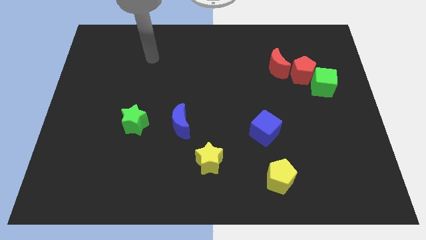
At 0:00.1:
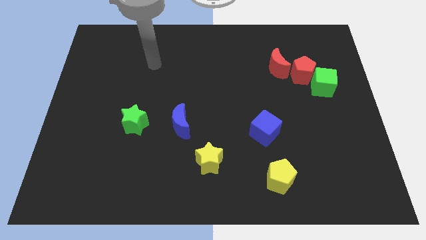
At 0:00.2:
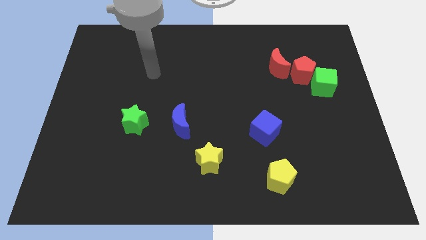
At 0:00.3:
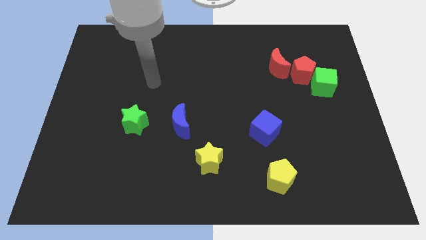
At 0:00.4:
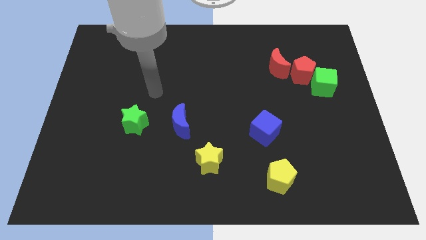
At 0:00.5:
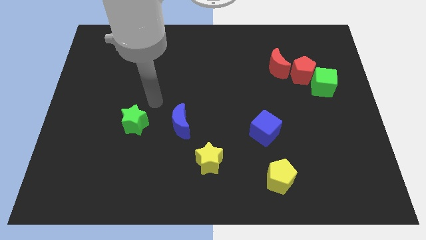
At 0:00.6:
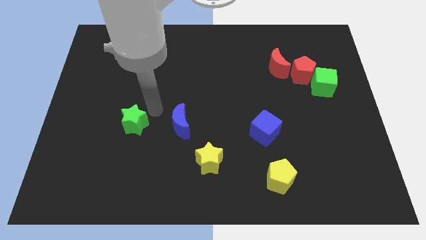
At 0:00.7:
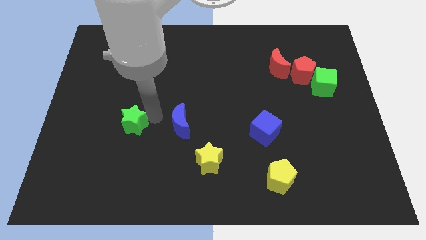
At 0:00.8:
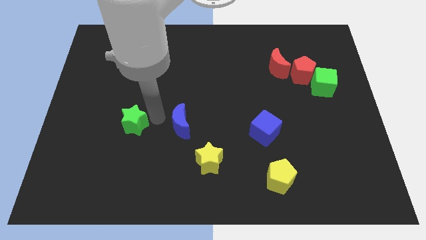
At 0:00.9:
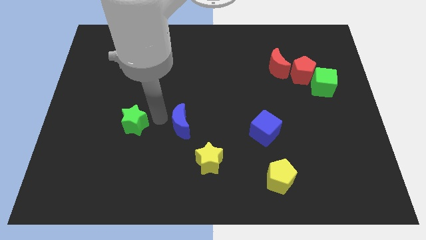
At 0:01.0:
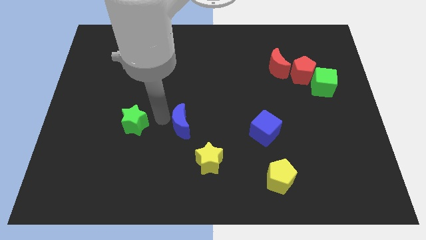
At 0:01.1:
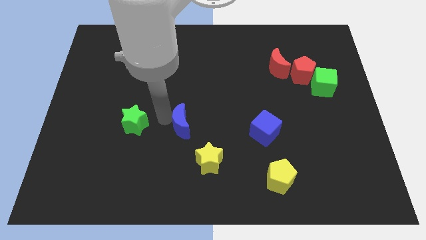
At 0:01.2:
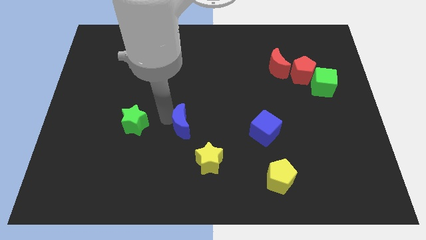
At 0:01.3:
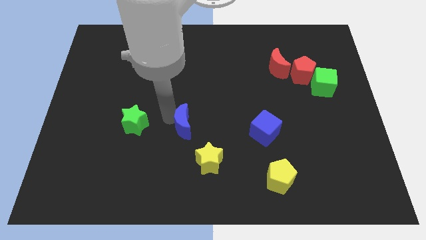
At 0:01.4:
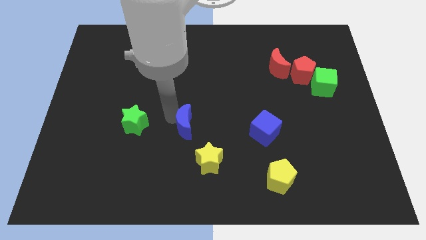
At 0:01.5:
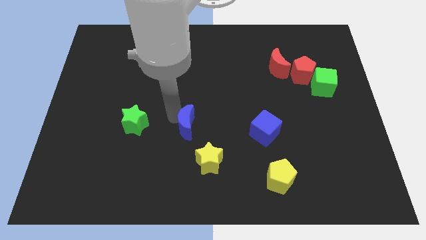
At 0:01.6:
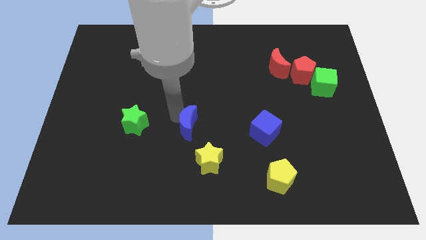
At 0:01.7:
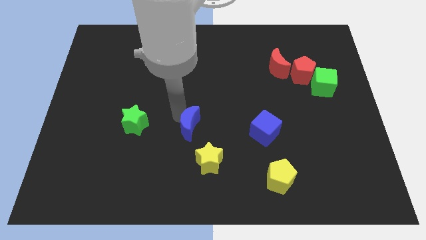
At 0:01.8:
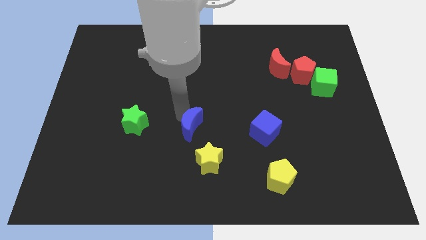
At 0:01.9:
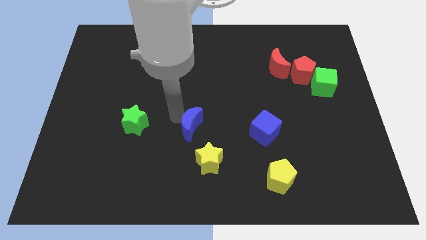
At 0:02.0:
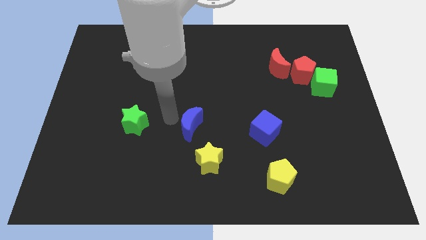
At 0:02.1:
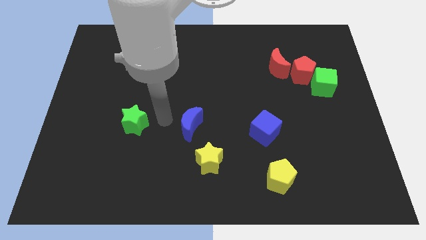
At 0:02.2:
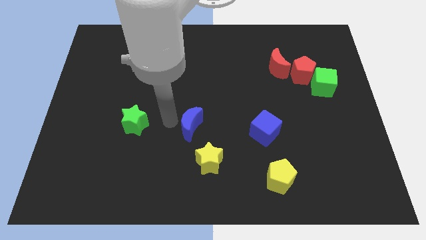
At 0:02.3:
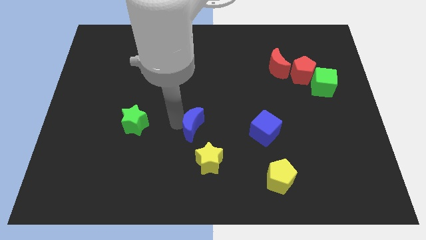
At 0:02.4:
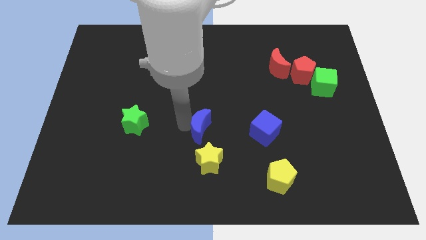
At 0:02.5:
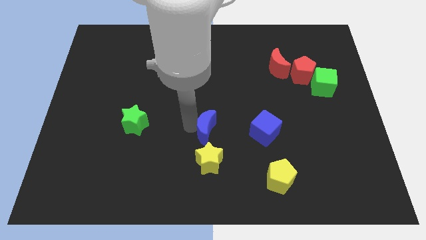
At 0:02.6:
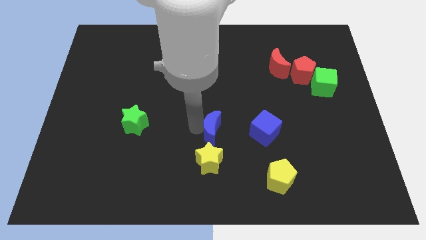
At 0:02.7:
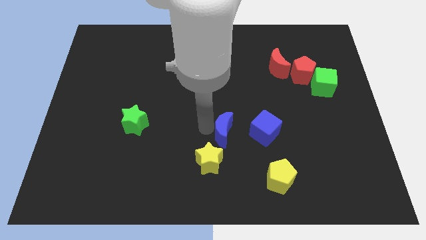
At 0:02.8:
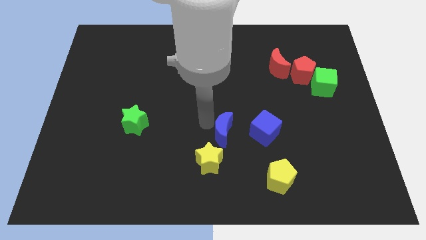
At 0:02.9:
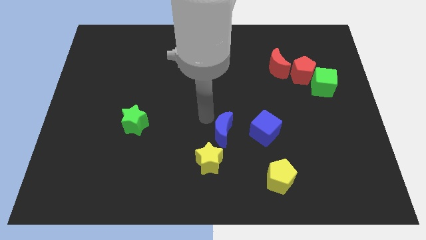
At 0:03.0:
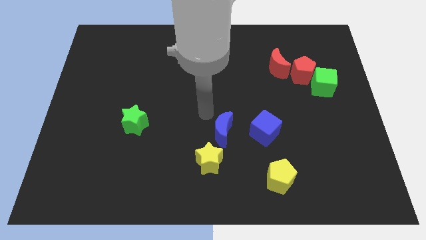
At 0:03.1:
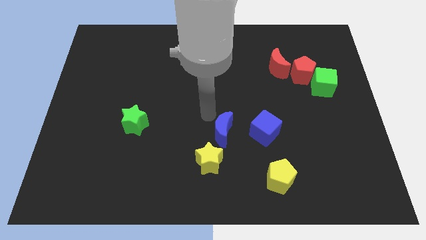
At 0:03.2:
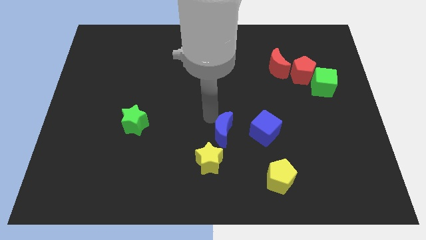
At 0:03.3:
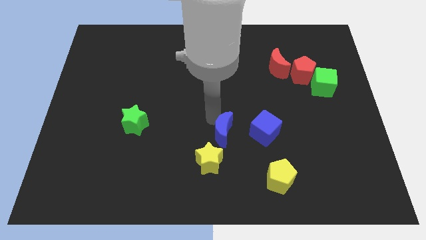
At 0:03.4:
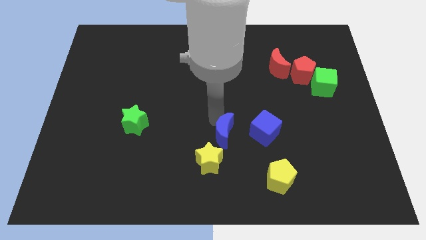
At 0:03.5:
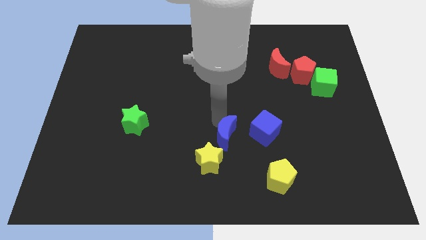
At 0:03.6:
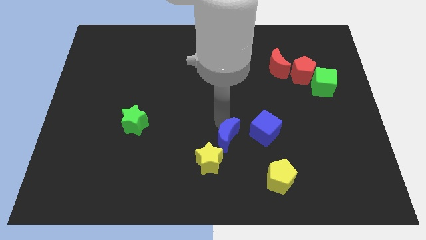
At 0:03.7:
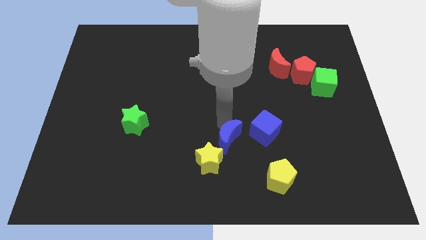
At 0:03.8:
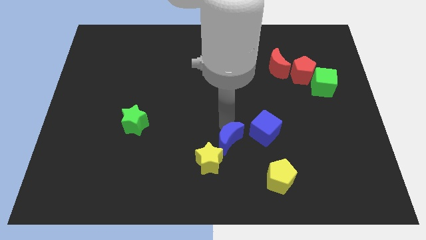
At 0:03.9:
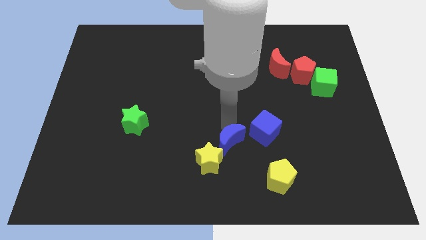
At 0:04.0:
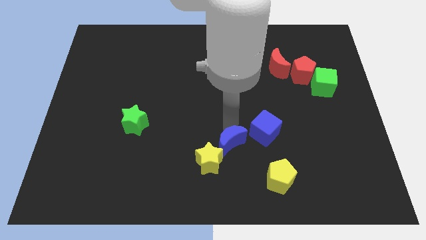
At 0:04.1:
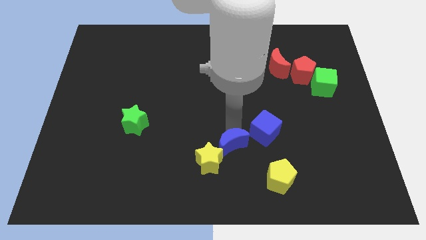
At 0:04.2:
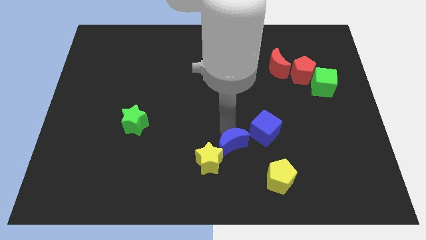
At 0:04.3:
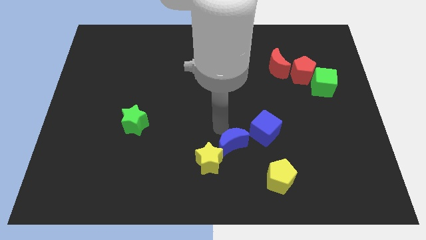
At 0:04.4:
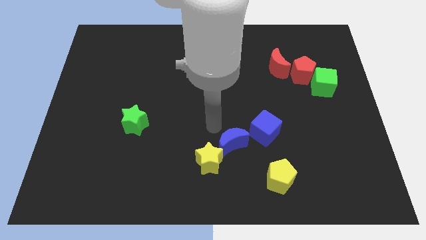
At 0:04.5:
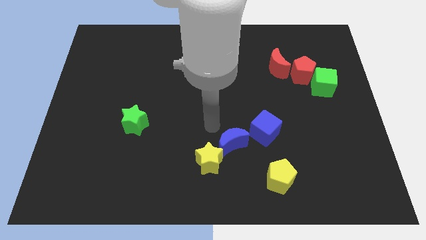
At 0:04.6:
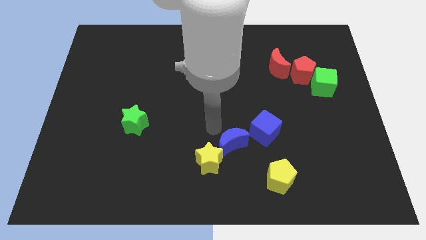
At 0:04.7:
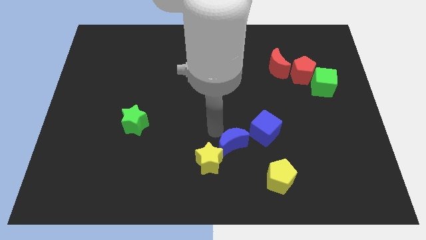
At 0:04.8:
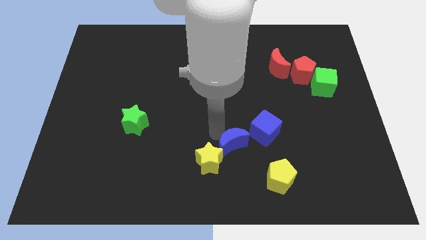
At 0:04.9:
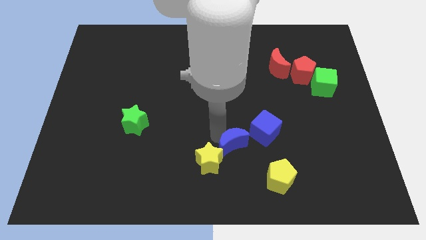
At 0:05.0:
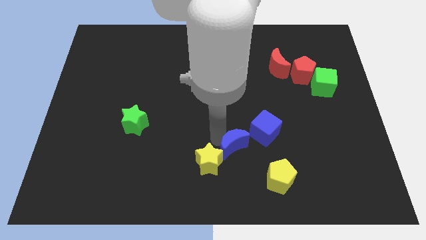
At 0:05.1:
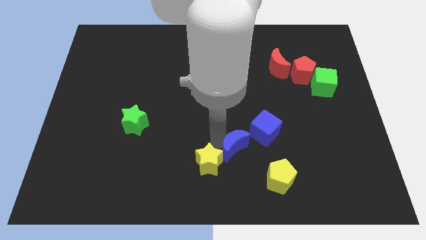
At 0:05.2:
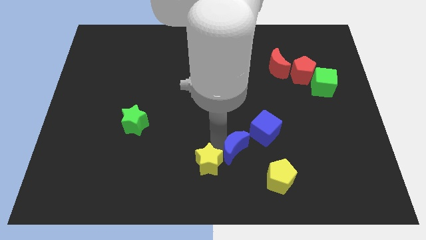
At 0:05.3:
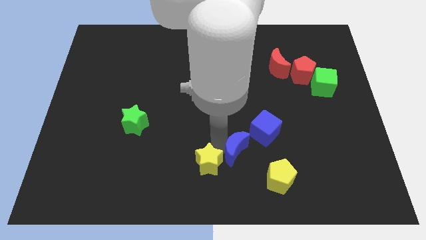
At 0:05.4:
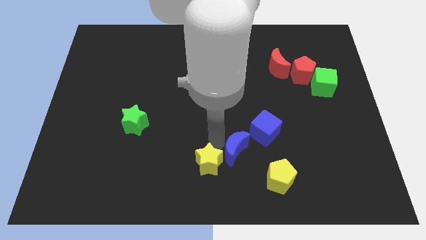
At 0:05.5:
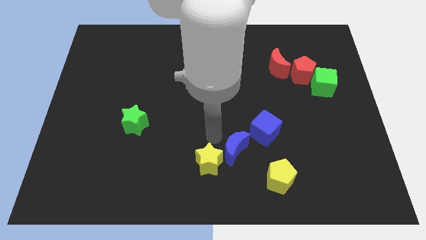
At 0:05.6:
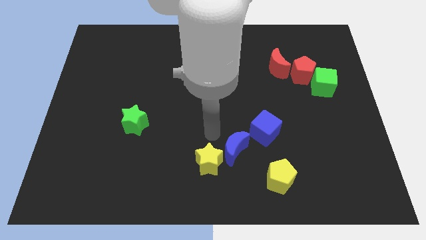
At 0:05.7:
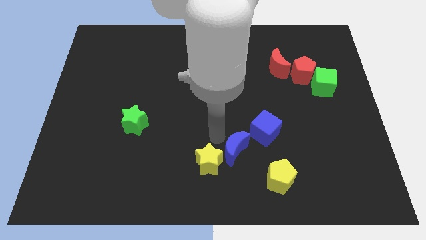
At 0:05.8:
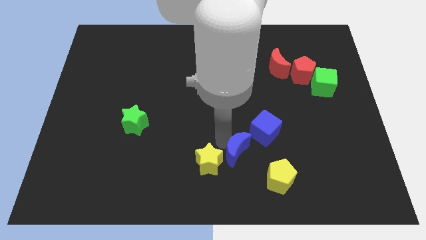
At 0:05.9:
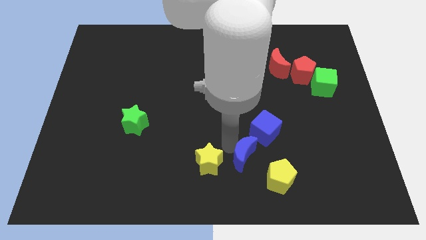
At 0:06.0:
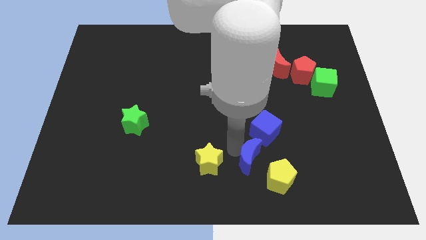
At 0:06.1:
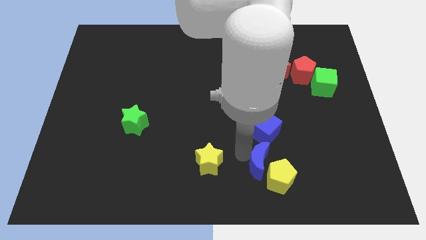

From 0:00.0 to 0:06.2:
slide the blue moon towards the yellow pentagon
